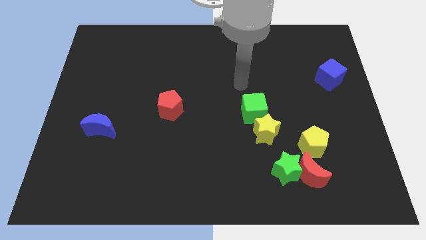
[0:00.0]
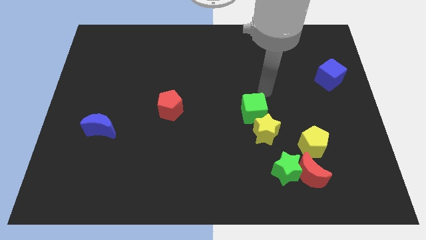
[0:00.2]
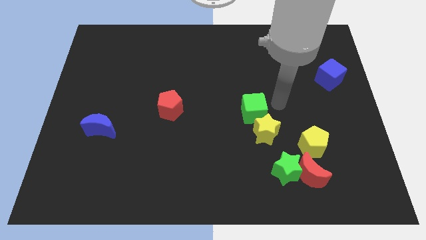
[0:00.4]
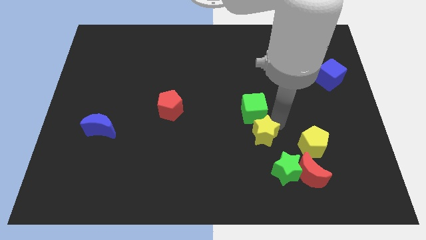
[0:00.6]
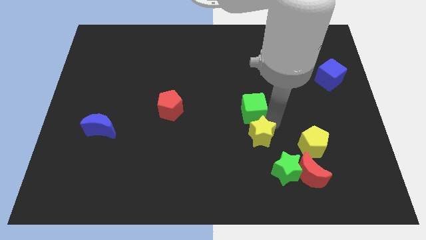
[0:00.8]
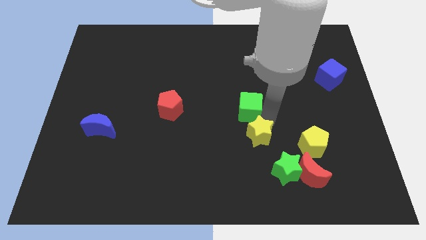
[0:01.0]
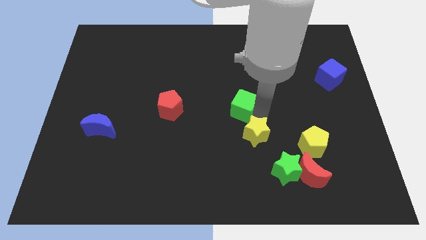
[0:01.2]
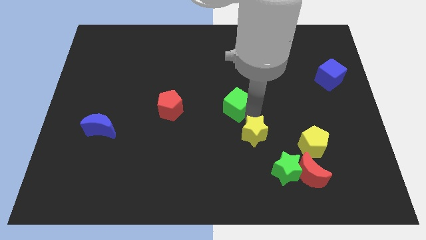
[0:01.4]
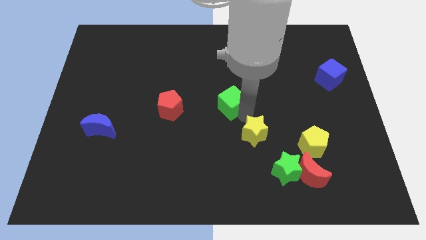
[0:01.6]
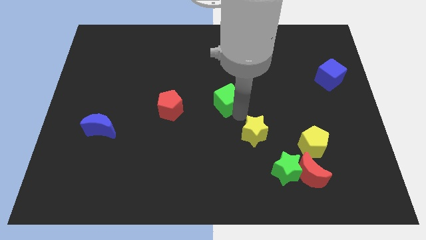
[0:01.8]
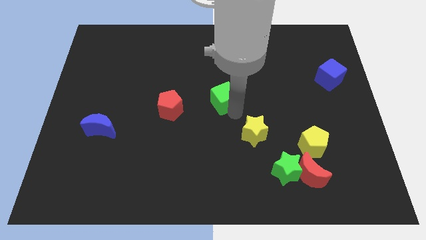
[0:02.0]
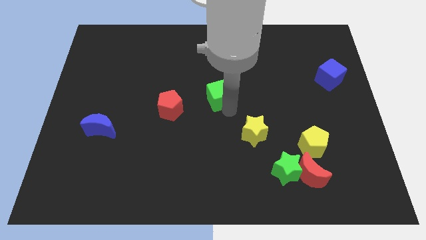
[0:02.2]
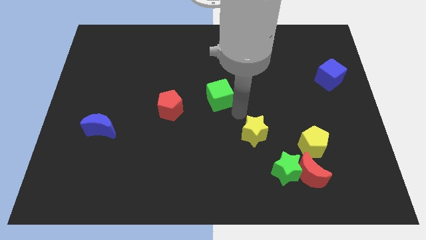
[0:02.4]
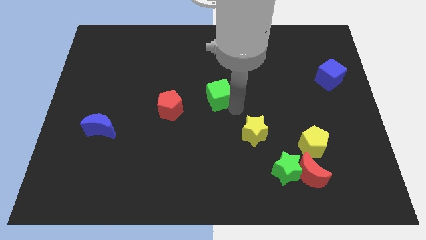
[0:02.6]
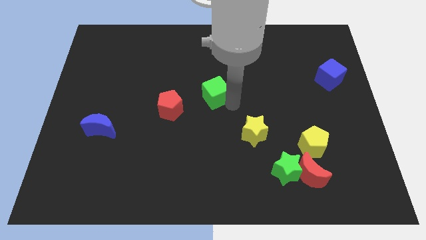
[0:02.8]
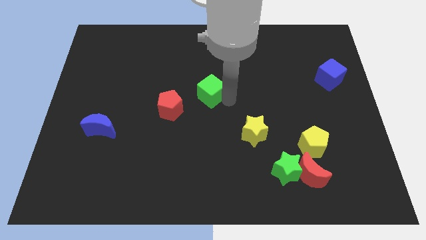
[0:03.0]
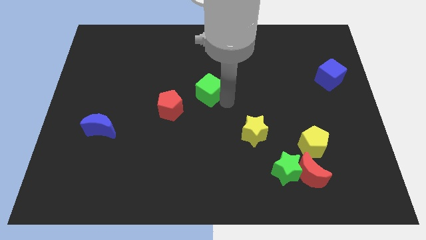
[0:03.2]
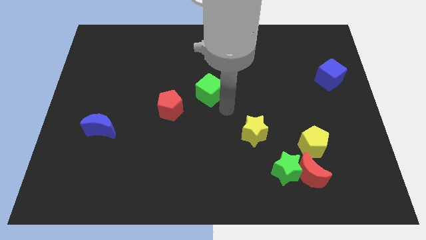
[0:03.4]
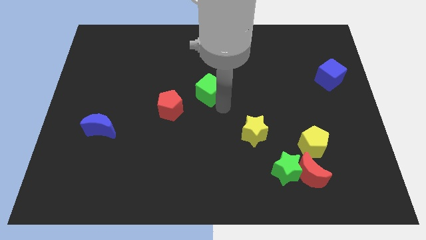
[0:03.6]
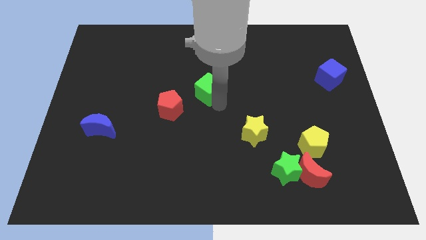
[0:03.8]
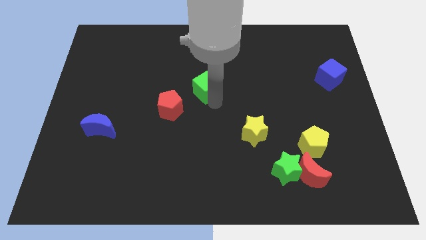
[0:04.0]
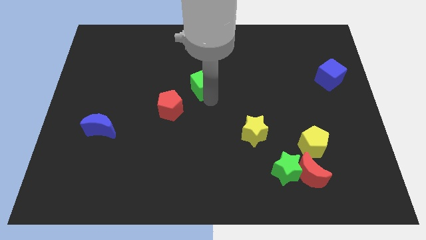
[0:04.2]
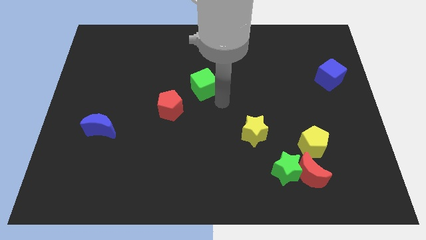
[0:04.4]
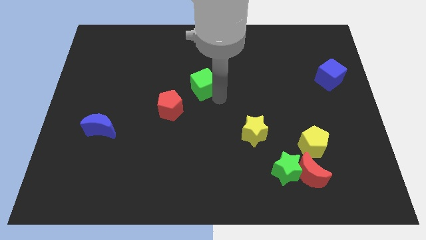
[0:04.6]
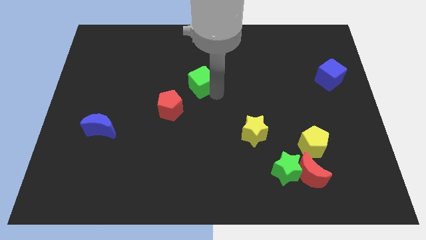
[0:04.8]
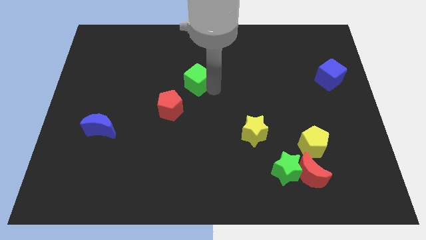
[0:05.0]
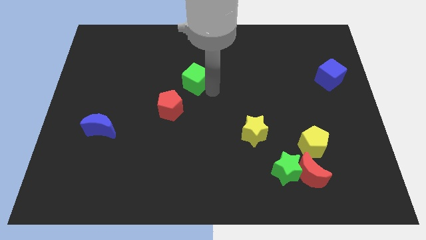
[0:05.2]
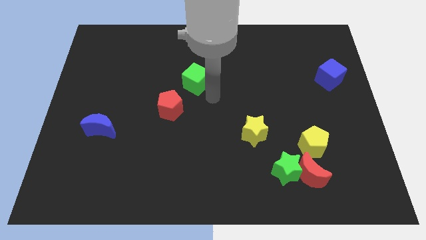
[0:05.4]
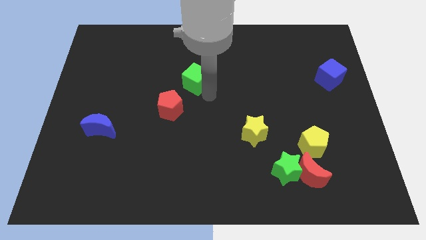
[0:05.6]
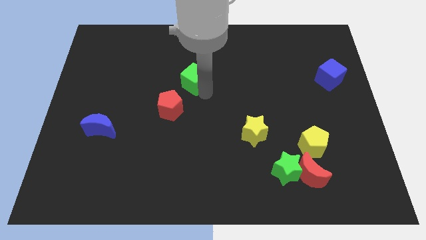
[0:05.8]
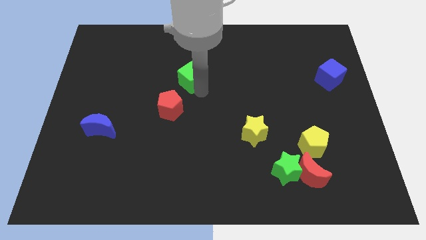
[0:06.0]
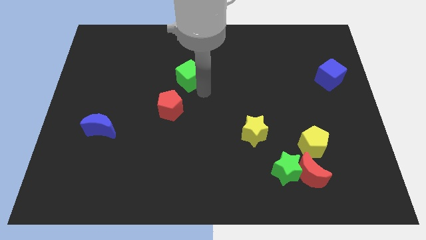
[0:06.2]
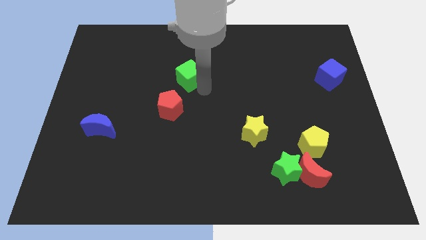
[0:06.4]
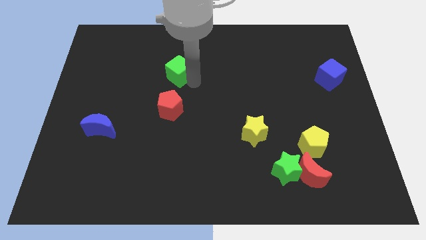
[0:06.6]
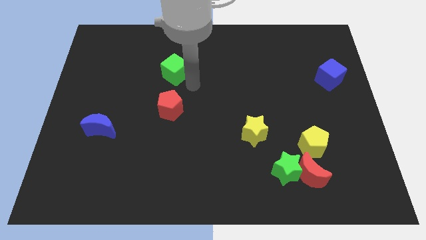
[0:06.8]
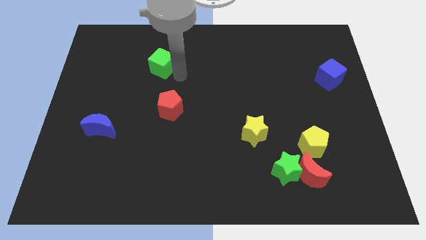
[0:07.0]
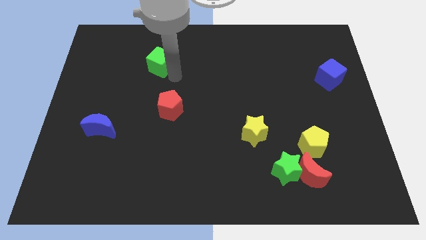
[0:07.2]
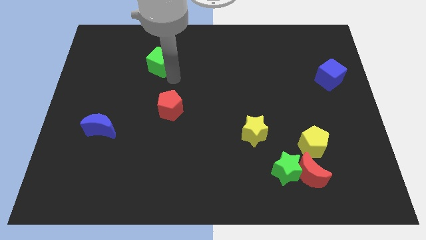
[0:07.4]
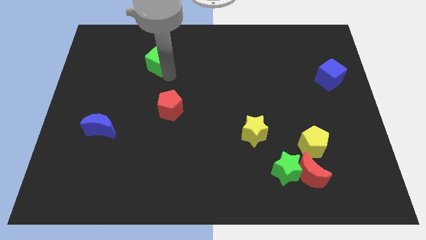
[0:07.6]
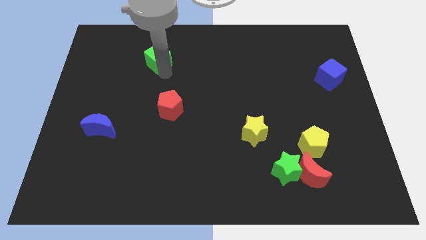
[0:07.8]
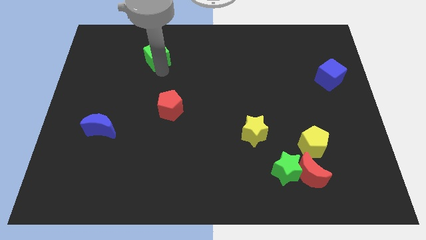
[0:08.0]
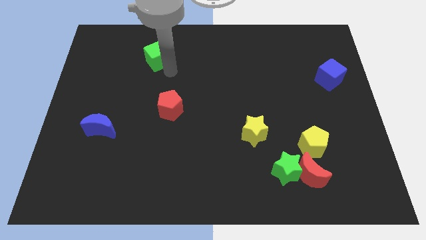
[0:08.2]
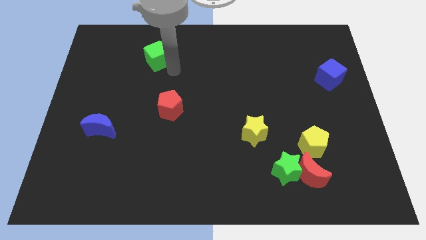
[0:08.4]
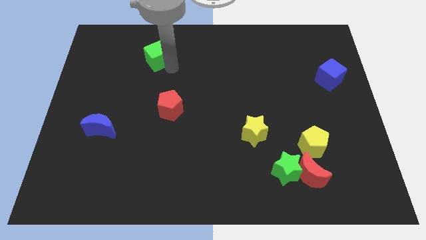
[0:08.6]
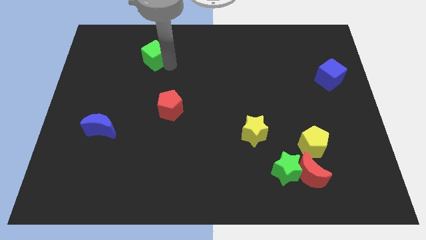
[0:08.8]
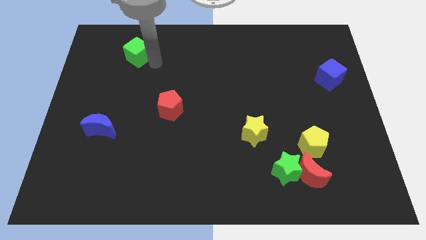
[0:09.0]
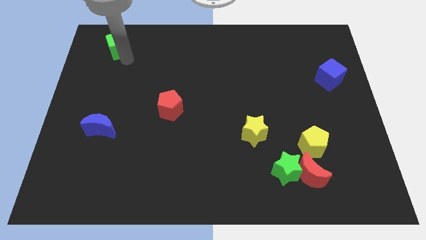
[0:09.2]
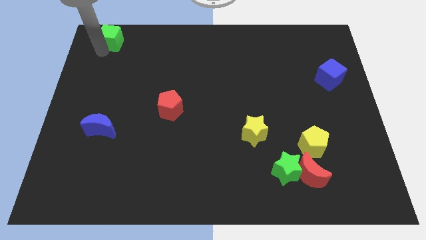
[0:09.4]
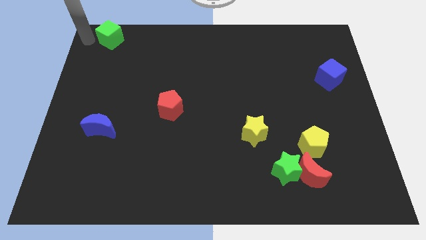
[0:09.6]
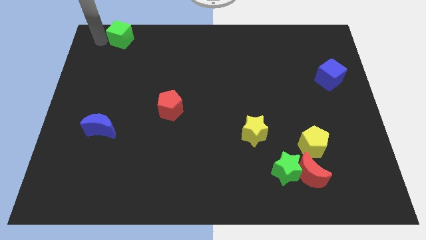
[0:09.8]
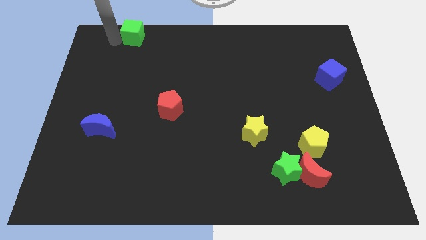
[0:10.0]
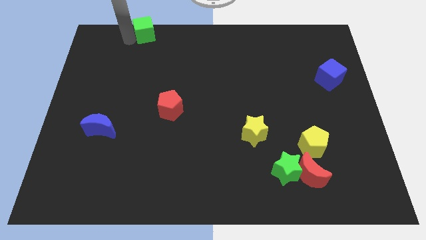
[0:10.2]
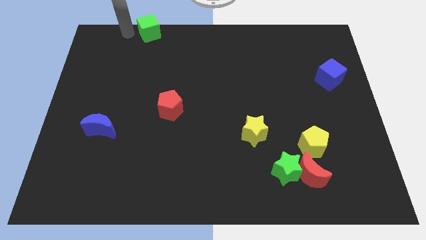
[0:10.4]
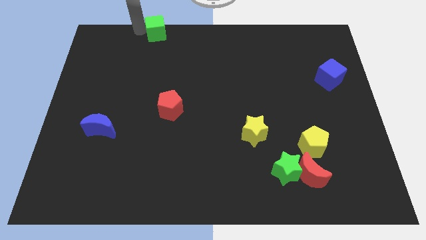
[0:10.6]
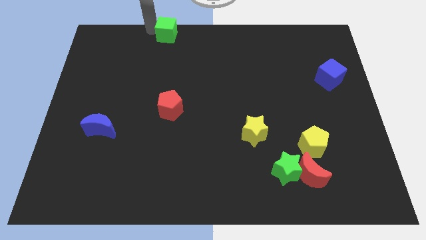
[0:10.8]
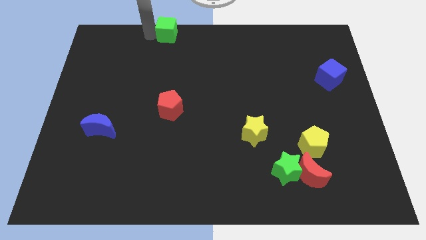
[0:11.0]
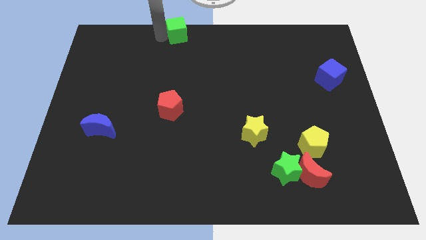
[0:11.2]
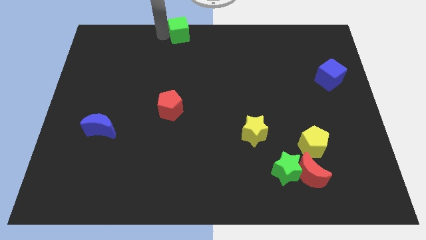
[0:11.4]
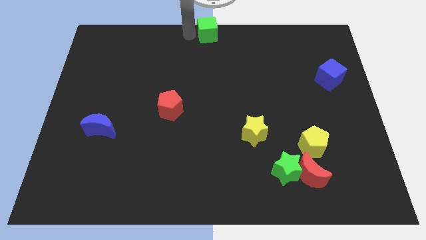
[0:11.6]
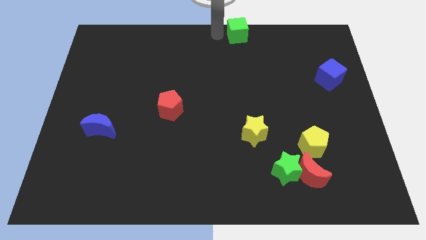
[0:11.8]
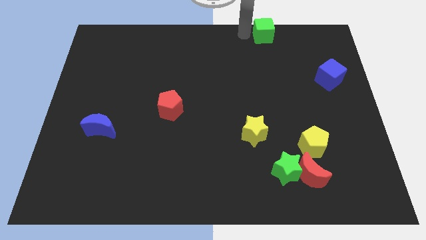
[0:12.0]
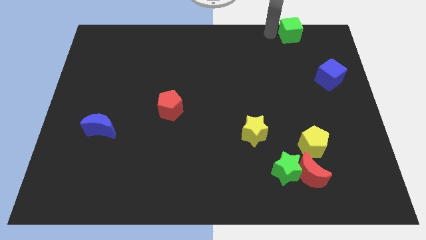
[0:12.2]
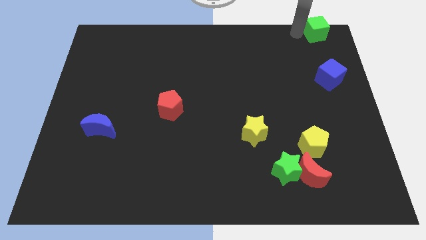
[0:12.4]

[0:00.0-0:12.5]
put the green cube to the upper right corner

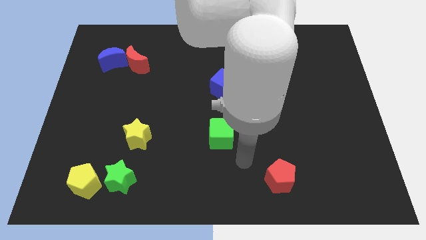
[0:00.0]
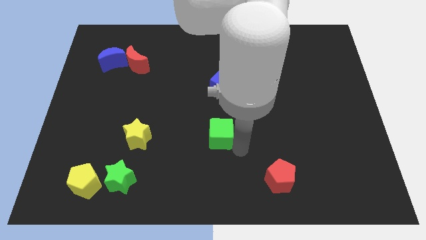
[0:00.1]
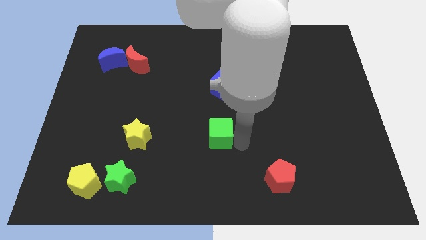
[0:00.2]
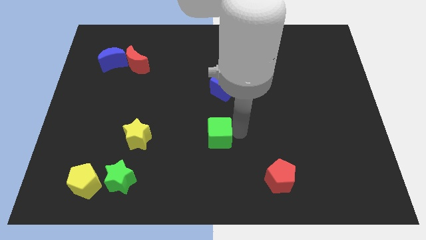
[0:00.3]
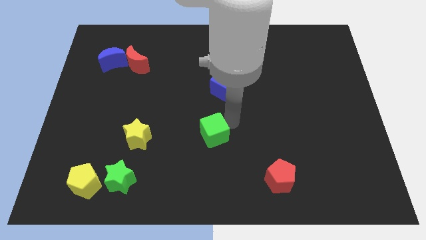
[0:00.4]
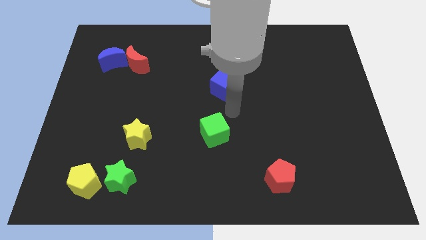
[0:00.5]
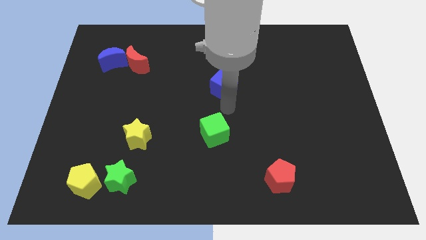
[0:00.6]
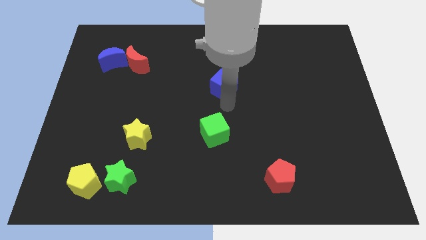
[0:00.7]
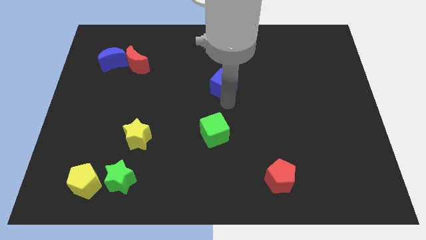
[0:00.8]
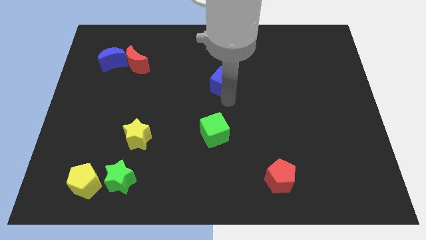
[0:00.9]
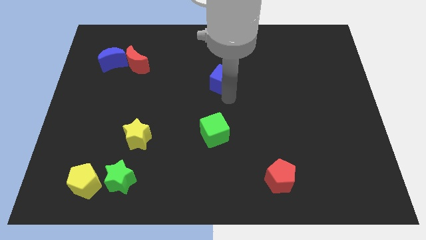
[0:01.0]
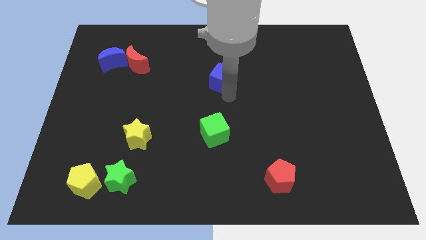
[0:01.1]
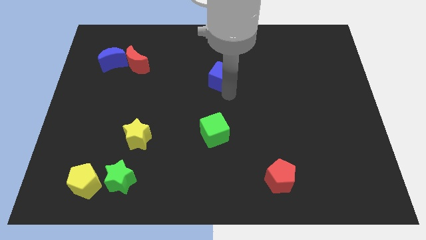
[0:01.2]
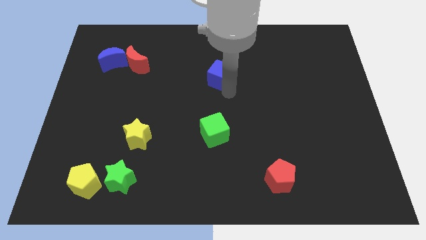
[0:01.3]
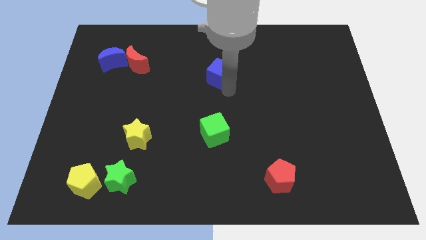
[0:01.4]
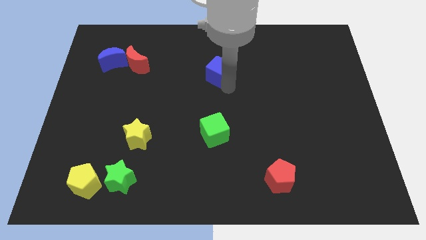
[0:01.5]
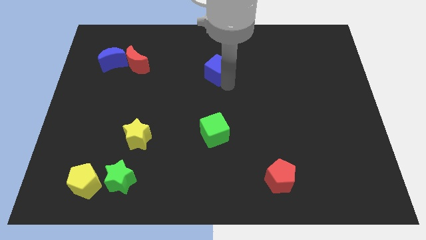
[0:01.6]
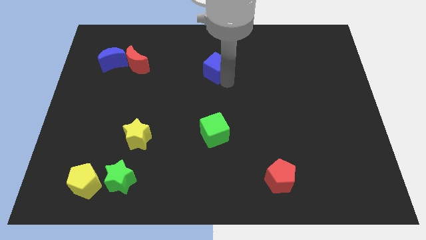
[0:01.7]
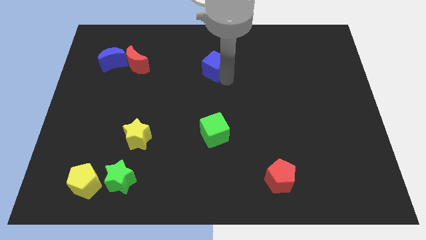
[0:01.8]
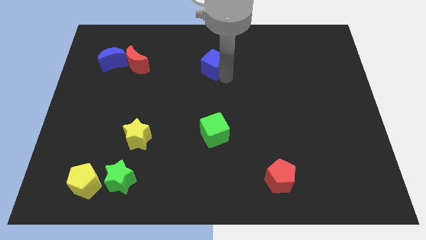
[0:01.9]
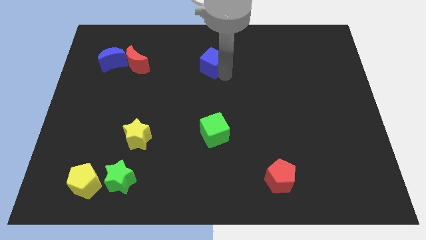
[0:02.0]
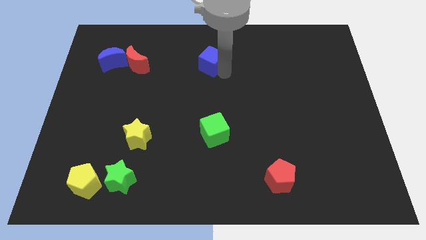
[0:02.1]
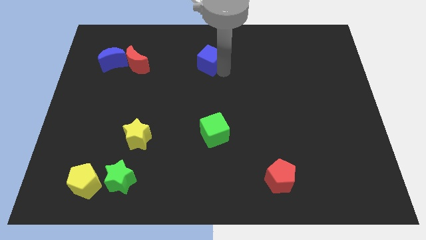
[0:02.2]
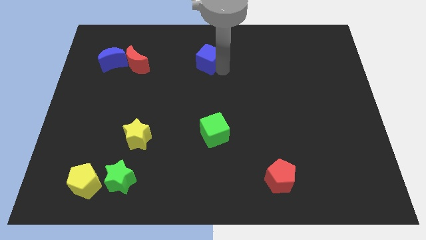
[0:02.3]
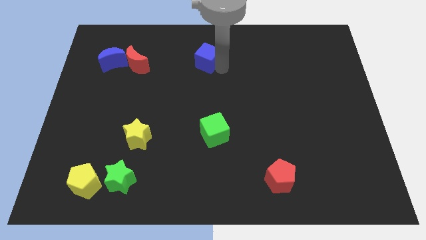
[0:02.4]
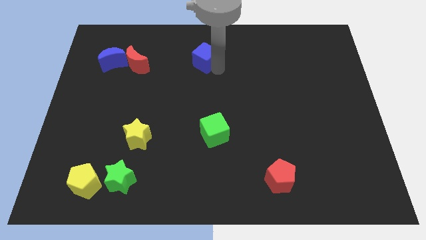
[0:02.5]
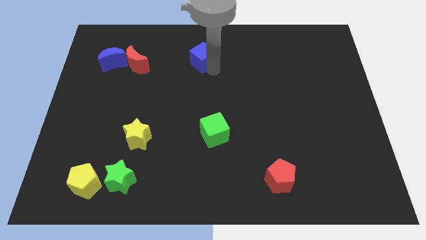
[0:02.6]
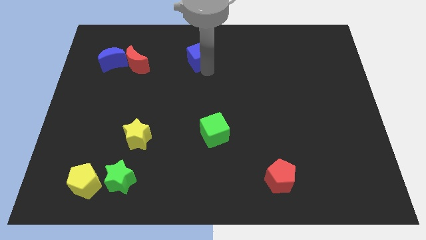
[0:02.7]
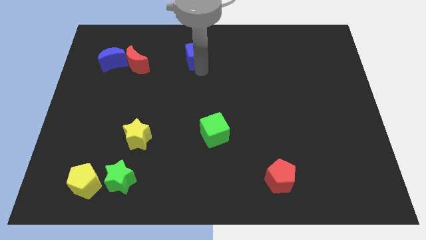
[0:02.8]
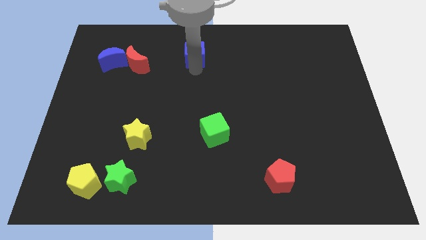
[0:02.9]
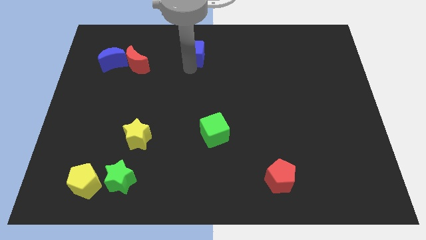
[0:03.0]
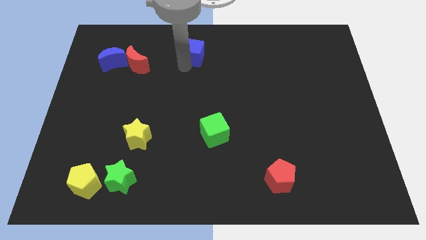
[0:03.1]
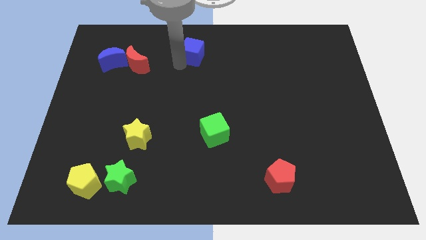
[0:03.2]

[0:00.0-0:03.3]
slide the blue cube to the top
